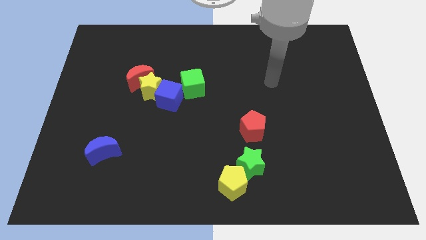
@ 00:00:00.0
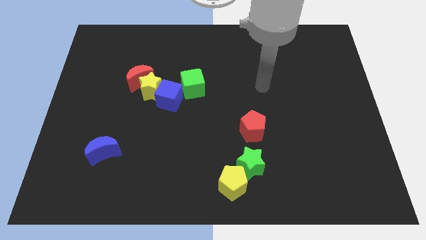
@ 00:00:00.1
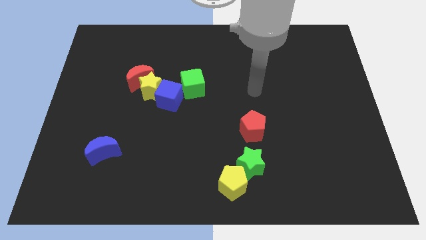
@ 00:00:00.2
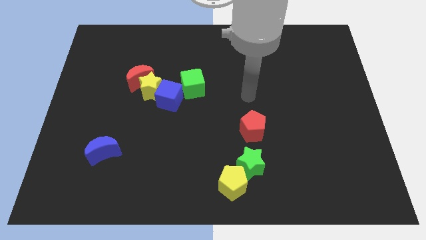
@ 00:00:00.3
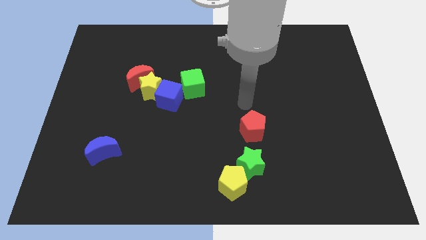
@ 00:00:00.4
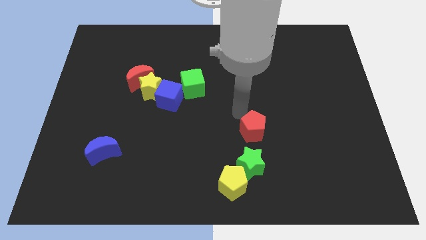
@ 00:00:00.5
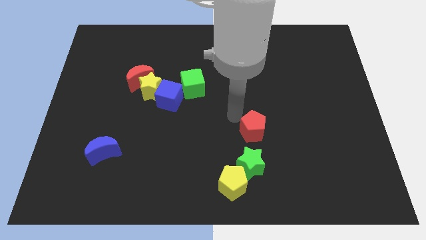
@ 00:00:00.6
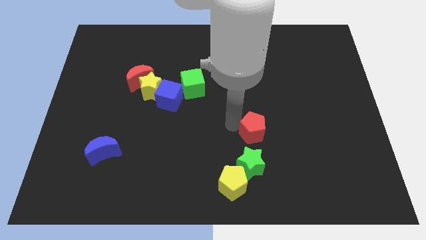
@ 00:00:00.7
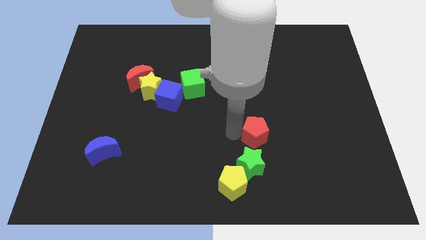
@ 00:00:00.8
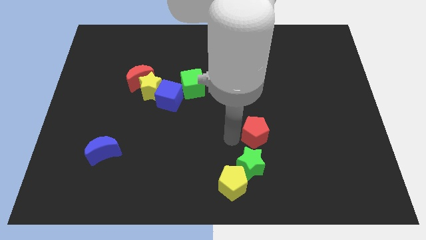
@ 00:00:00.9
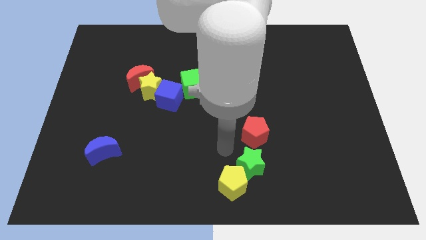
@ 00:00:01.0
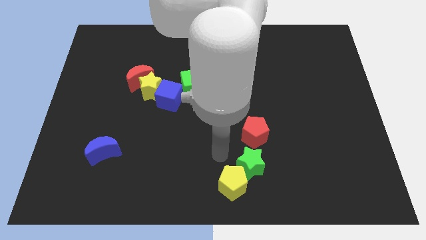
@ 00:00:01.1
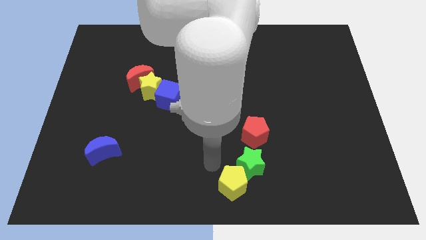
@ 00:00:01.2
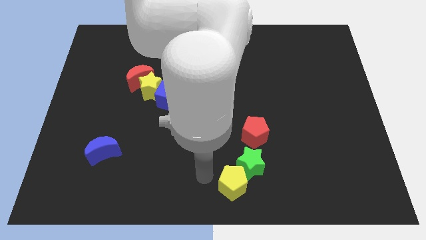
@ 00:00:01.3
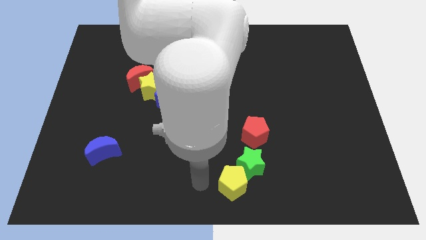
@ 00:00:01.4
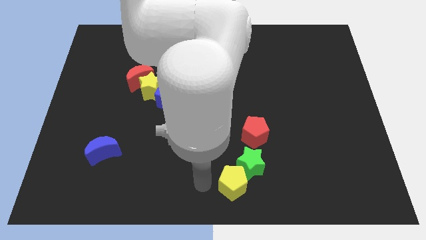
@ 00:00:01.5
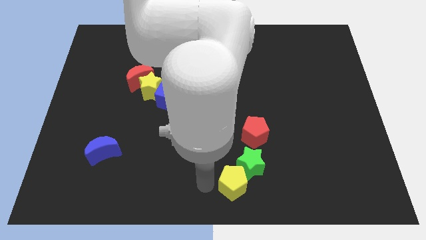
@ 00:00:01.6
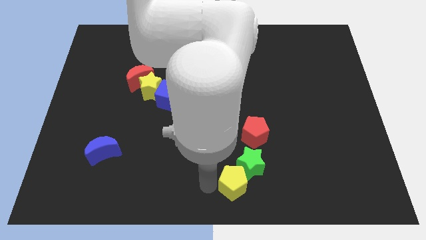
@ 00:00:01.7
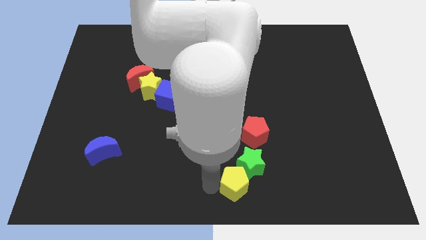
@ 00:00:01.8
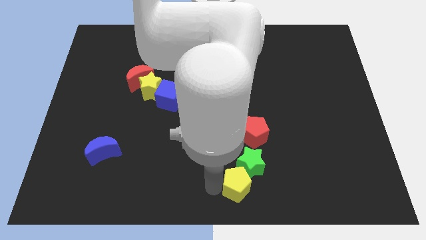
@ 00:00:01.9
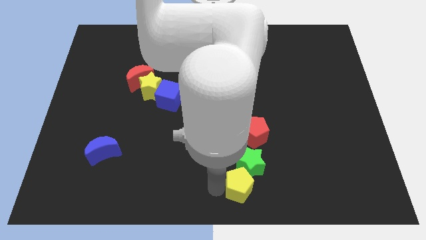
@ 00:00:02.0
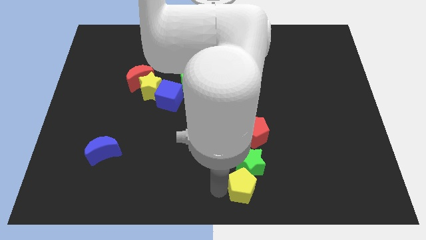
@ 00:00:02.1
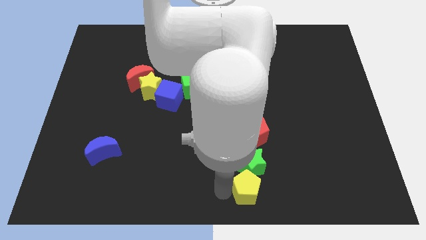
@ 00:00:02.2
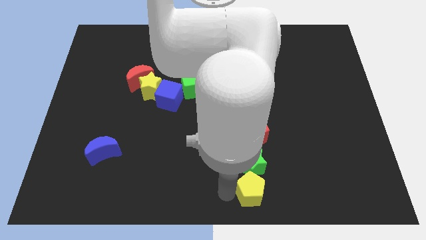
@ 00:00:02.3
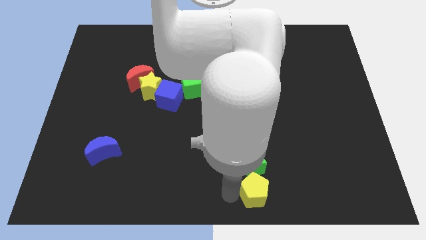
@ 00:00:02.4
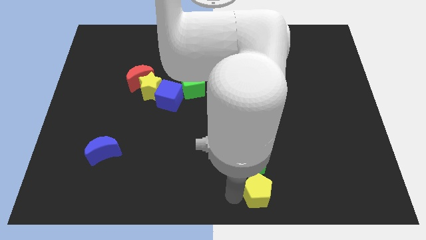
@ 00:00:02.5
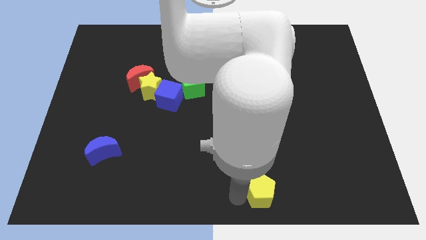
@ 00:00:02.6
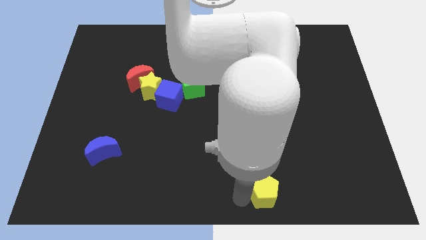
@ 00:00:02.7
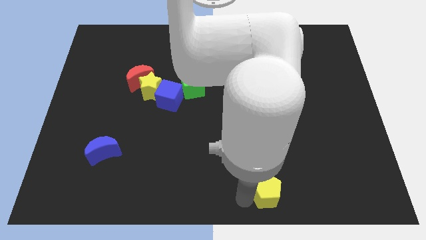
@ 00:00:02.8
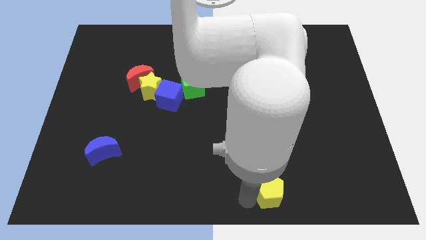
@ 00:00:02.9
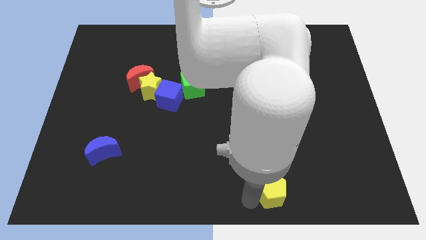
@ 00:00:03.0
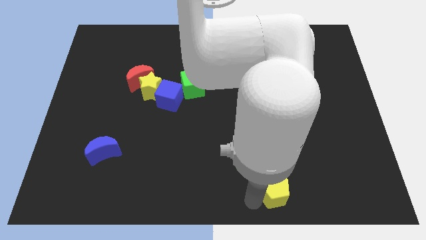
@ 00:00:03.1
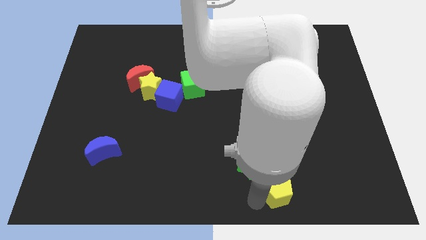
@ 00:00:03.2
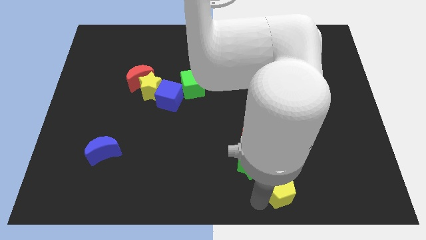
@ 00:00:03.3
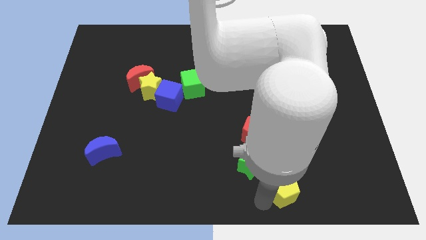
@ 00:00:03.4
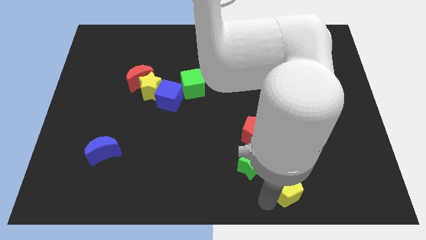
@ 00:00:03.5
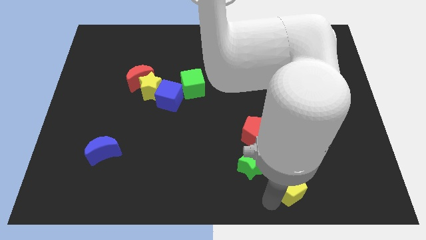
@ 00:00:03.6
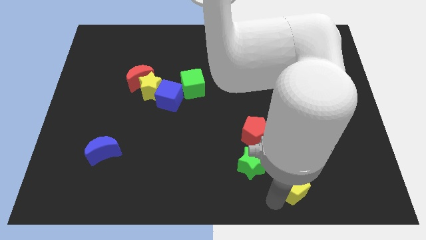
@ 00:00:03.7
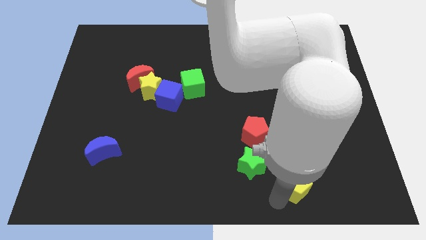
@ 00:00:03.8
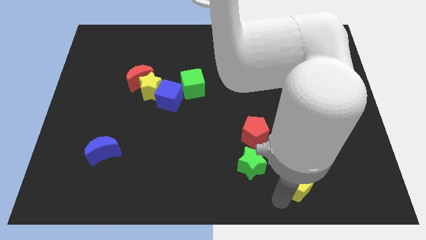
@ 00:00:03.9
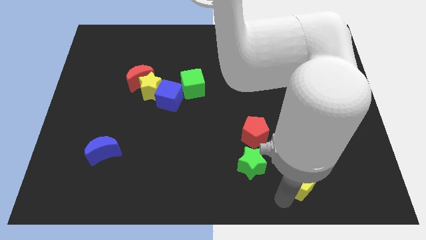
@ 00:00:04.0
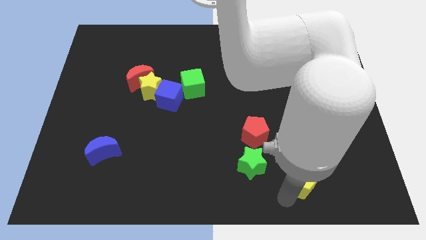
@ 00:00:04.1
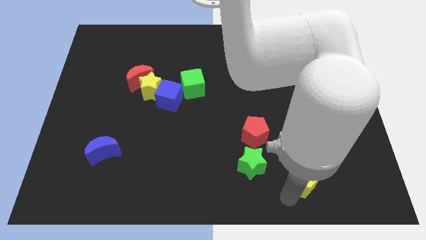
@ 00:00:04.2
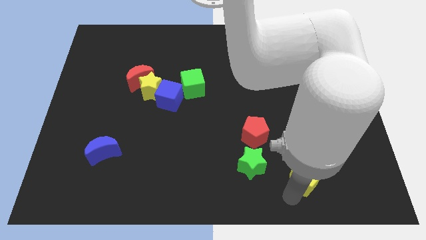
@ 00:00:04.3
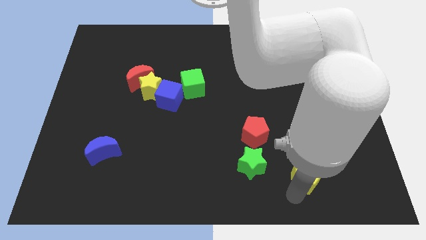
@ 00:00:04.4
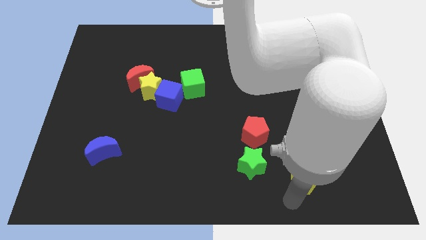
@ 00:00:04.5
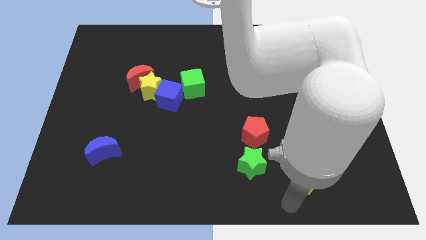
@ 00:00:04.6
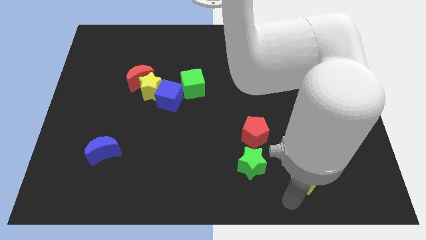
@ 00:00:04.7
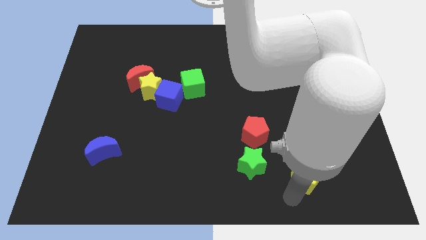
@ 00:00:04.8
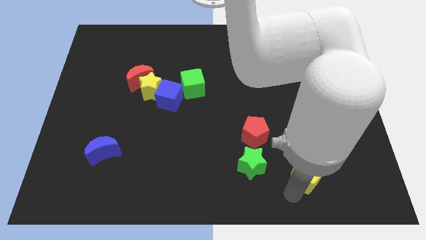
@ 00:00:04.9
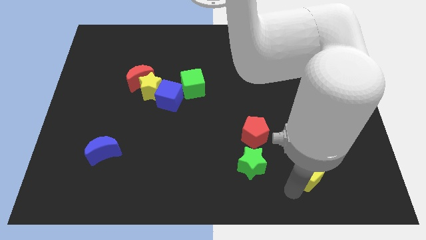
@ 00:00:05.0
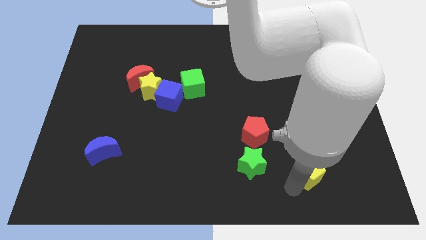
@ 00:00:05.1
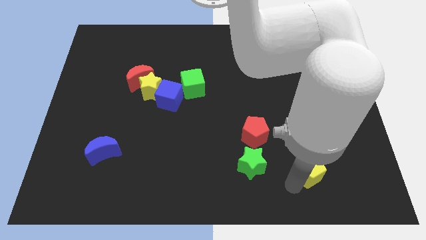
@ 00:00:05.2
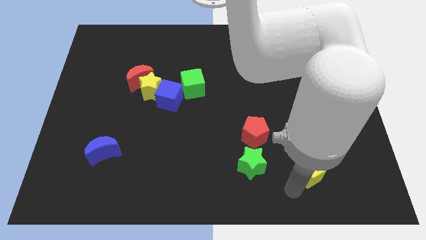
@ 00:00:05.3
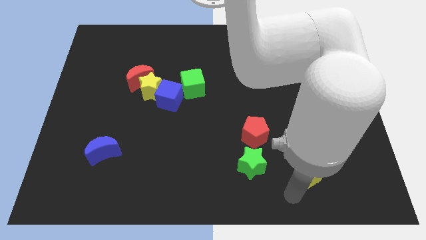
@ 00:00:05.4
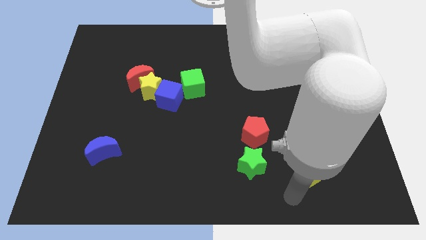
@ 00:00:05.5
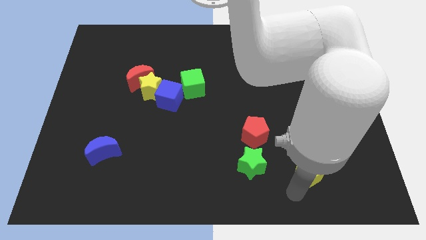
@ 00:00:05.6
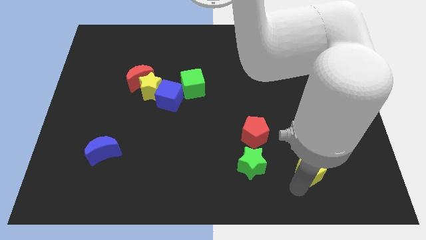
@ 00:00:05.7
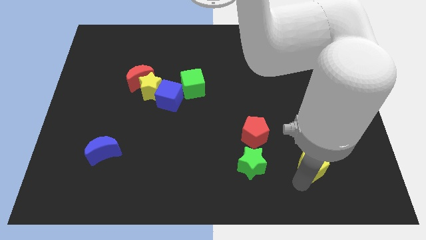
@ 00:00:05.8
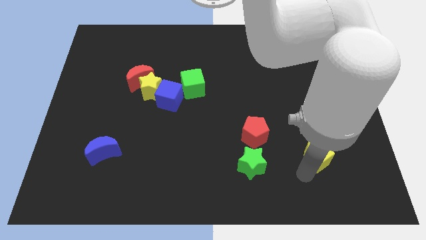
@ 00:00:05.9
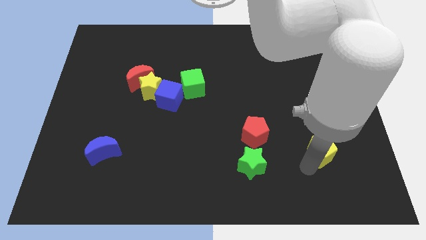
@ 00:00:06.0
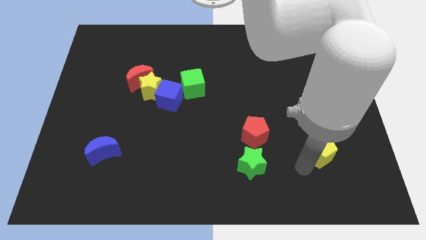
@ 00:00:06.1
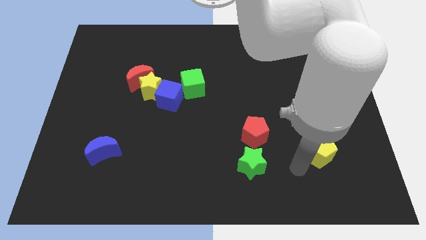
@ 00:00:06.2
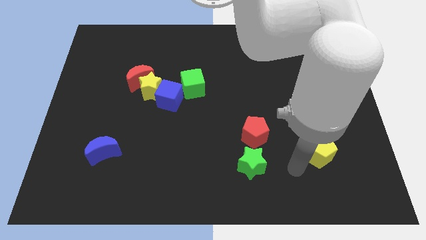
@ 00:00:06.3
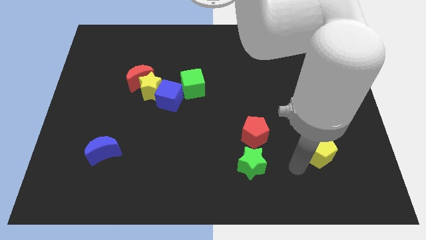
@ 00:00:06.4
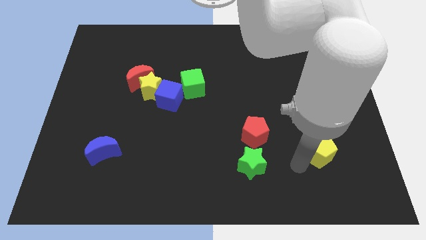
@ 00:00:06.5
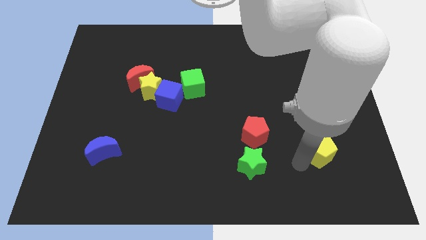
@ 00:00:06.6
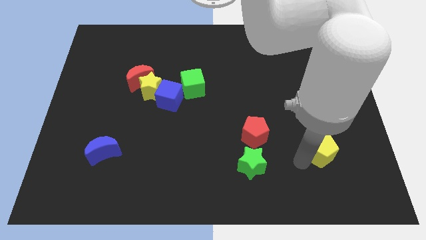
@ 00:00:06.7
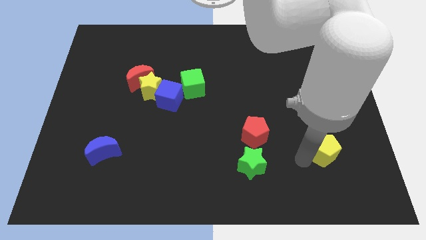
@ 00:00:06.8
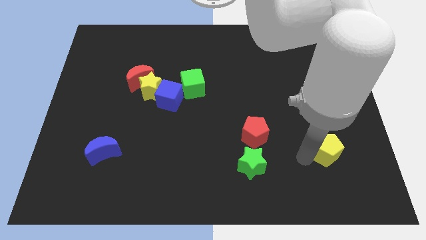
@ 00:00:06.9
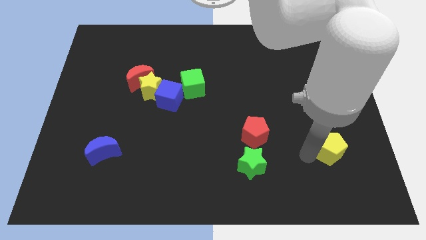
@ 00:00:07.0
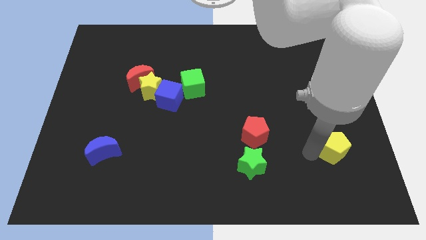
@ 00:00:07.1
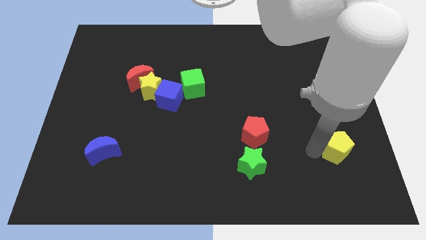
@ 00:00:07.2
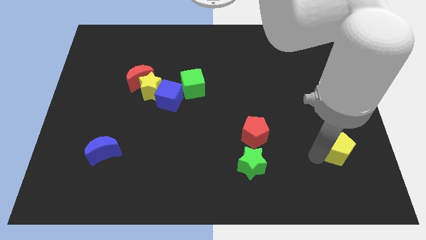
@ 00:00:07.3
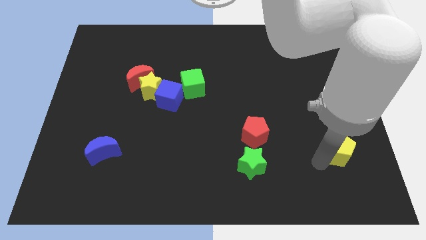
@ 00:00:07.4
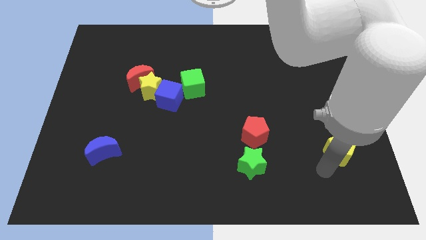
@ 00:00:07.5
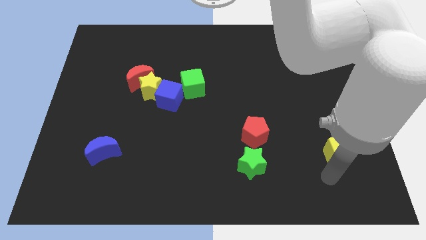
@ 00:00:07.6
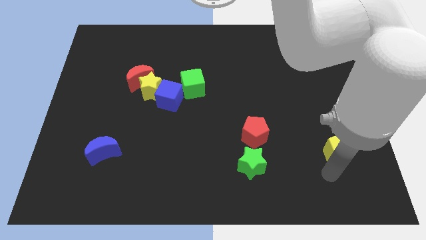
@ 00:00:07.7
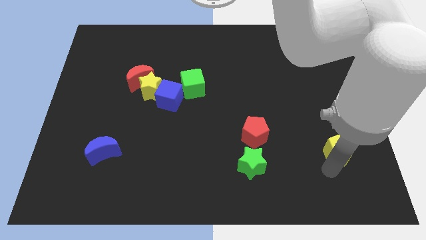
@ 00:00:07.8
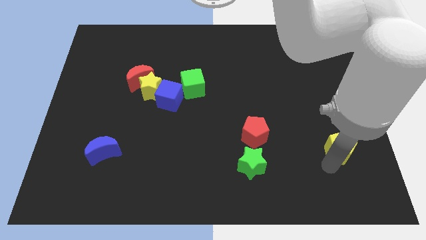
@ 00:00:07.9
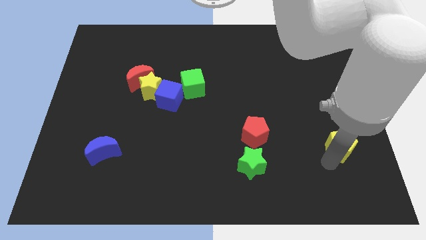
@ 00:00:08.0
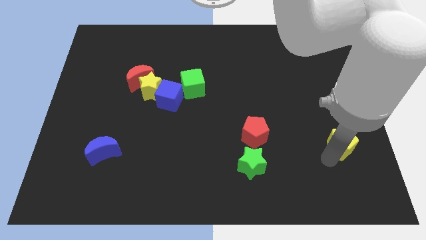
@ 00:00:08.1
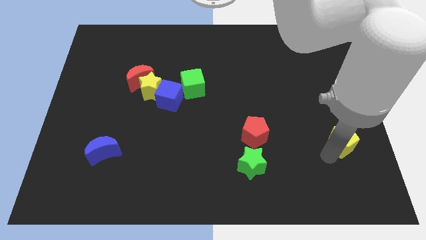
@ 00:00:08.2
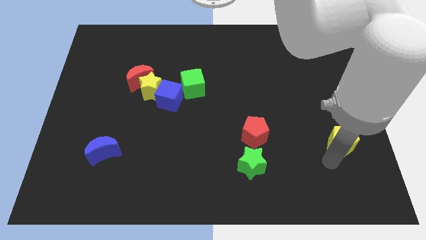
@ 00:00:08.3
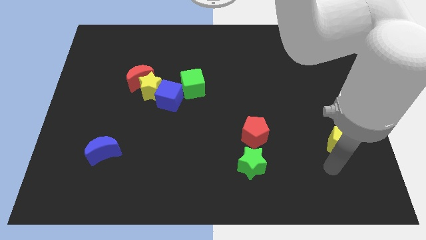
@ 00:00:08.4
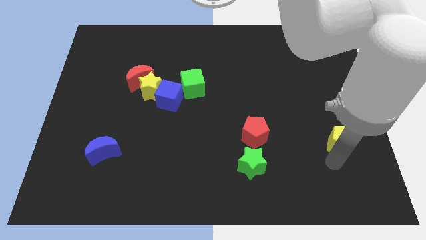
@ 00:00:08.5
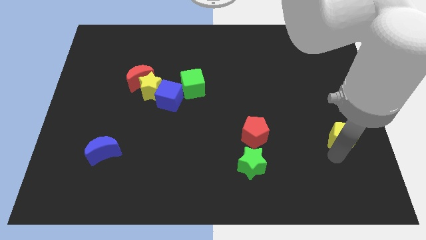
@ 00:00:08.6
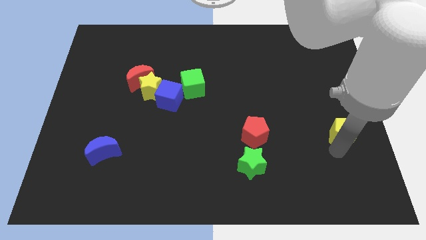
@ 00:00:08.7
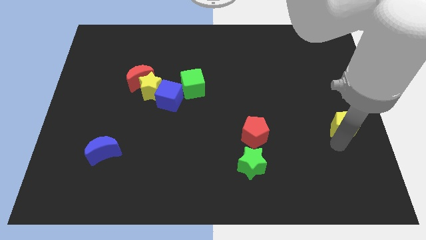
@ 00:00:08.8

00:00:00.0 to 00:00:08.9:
push the yellow pentagon to the center right
